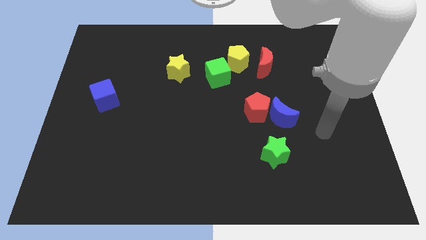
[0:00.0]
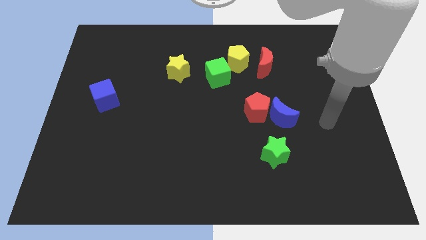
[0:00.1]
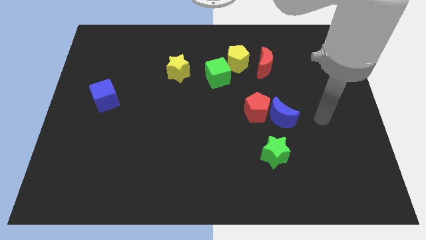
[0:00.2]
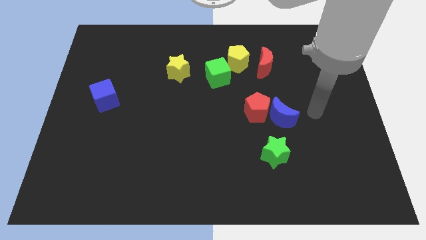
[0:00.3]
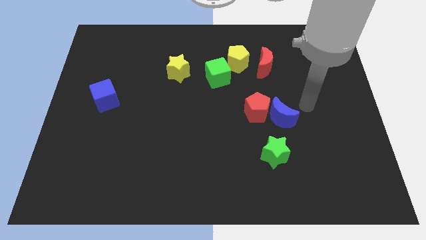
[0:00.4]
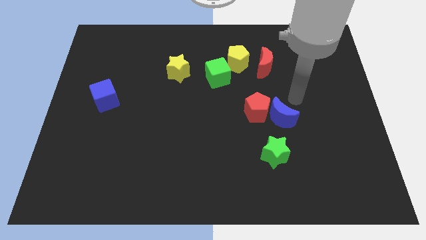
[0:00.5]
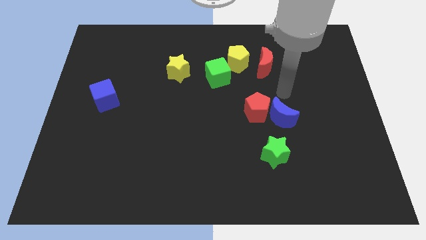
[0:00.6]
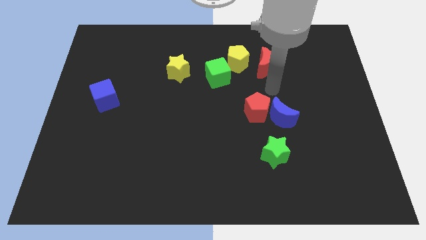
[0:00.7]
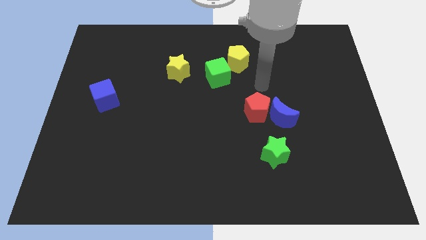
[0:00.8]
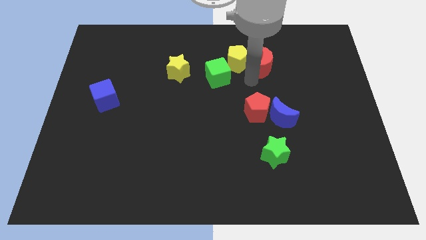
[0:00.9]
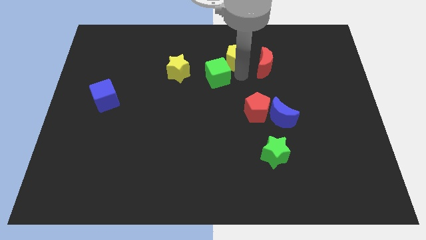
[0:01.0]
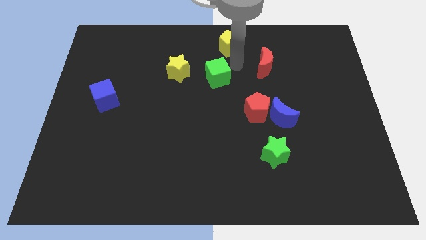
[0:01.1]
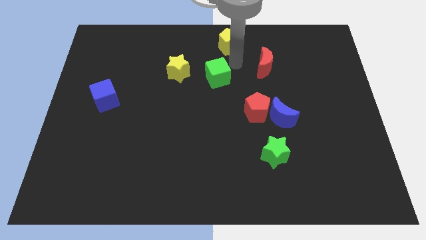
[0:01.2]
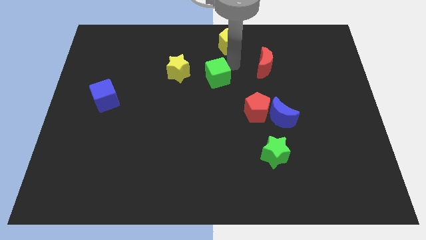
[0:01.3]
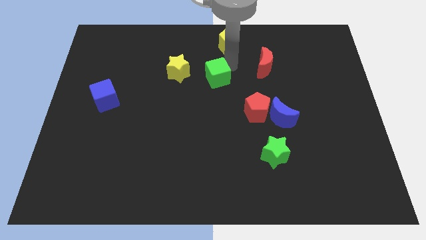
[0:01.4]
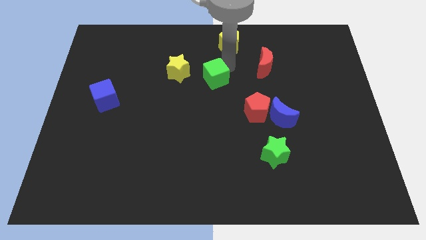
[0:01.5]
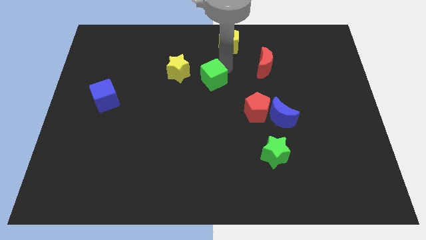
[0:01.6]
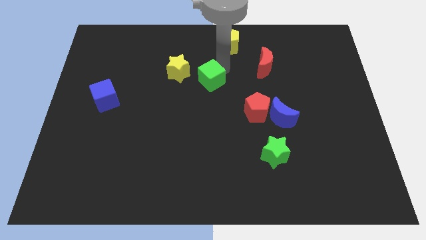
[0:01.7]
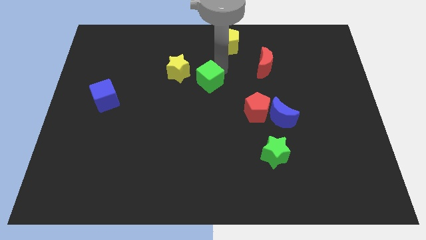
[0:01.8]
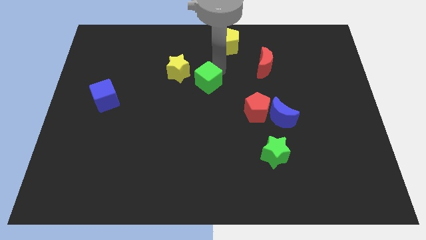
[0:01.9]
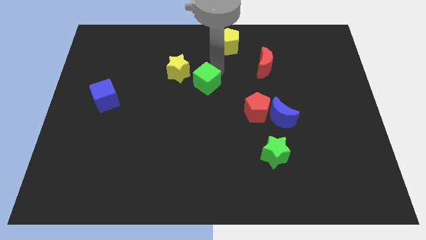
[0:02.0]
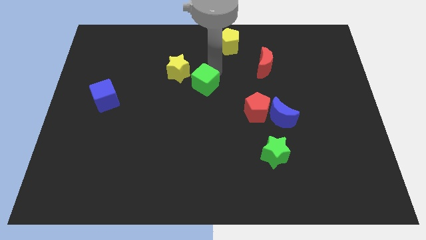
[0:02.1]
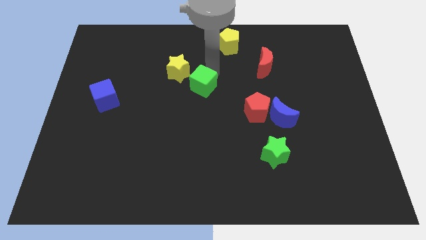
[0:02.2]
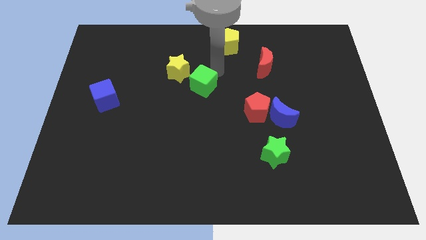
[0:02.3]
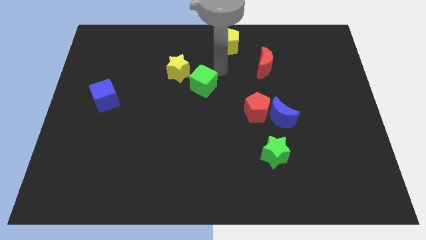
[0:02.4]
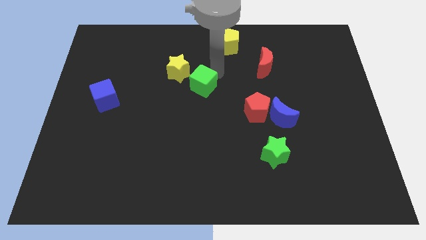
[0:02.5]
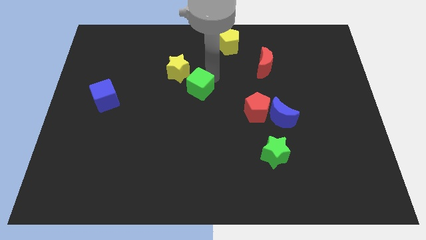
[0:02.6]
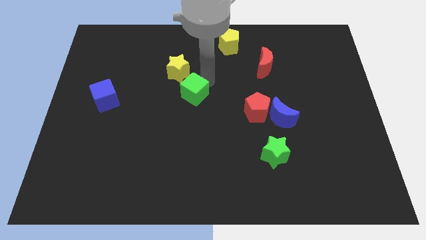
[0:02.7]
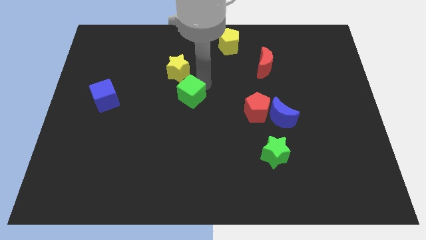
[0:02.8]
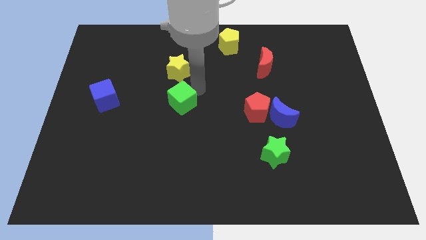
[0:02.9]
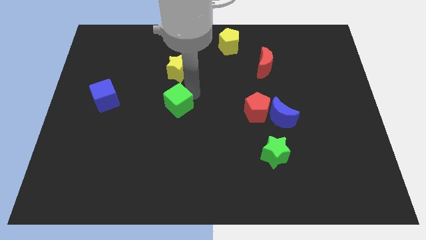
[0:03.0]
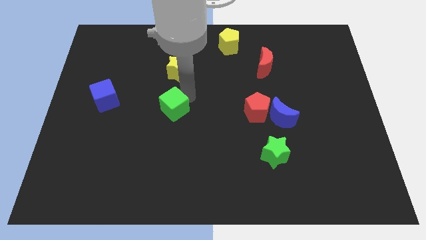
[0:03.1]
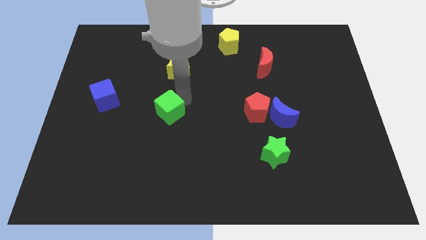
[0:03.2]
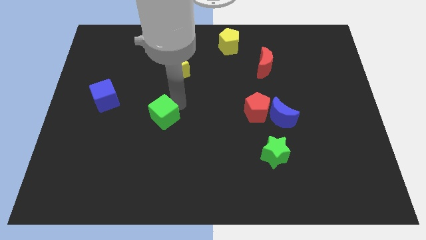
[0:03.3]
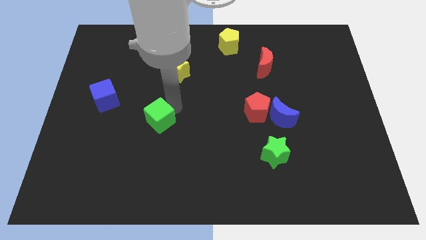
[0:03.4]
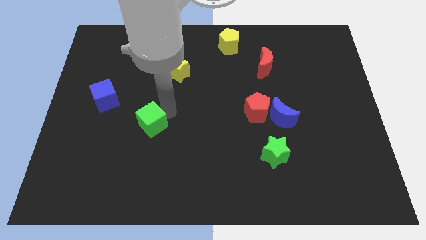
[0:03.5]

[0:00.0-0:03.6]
slide the green cube downwards and then to the left

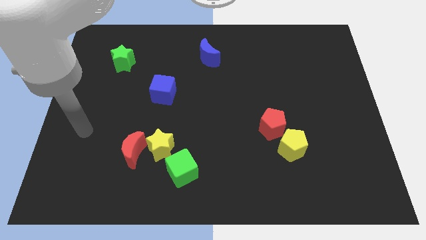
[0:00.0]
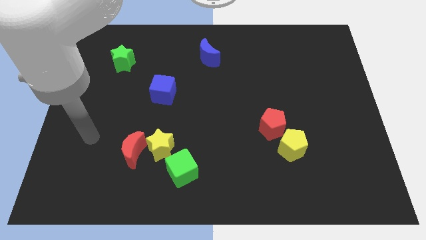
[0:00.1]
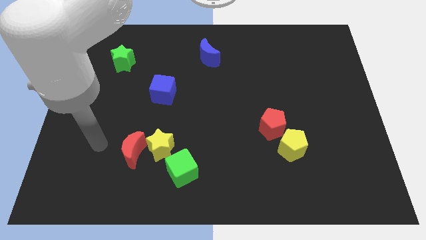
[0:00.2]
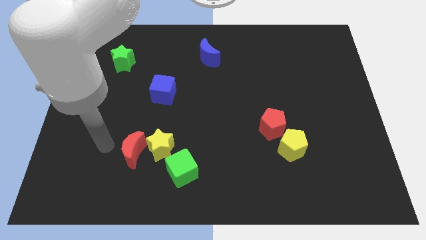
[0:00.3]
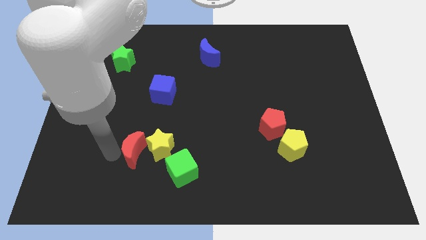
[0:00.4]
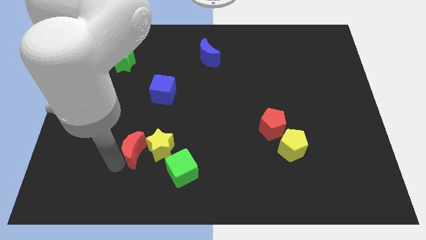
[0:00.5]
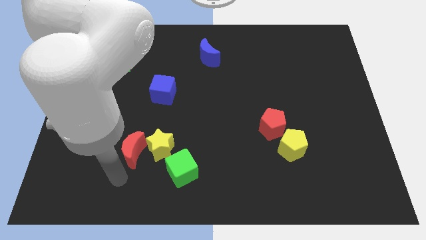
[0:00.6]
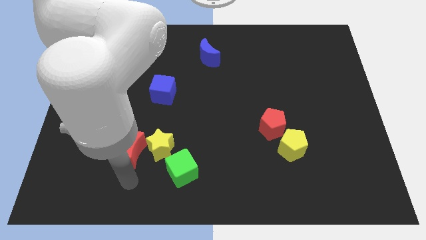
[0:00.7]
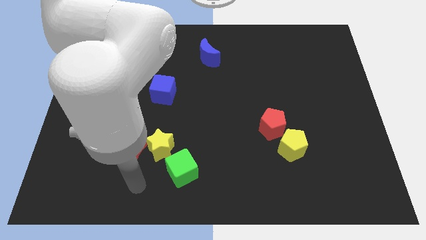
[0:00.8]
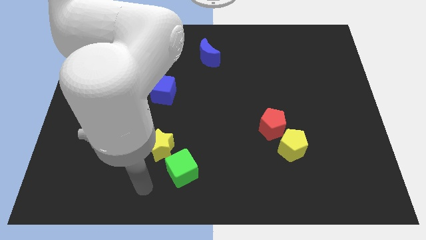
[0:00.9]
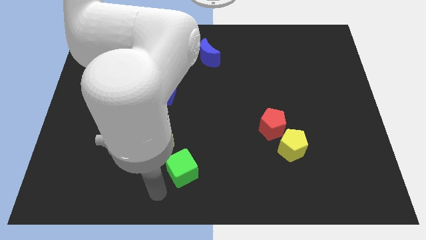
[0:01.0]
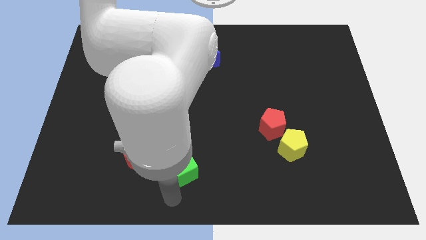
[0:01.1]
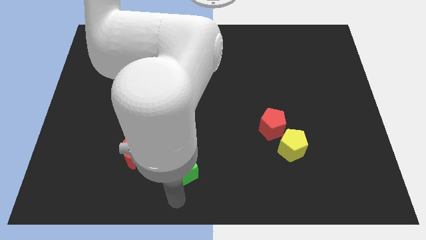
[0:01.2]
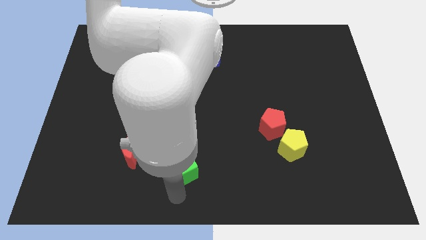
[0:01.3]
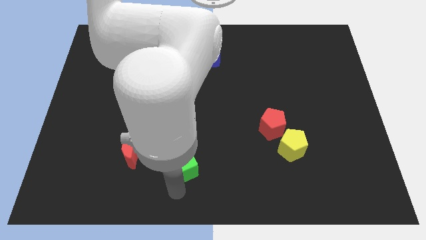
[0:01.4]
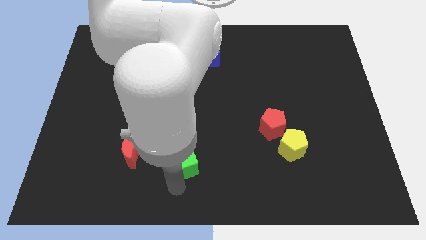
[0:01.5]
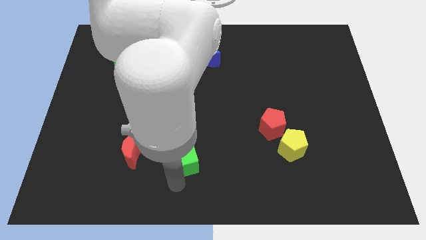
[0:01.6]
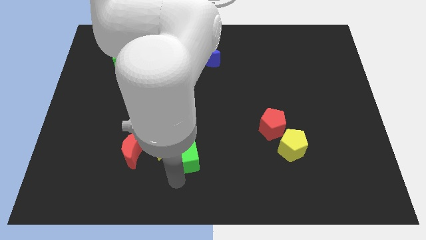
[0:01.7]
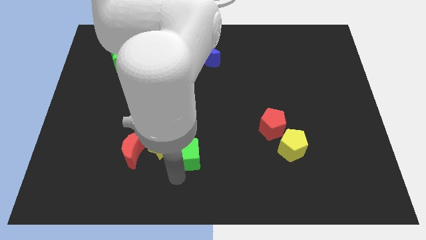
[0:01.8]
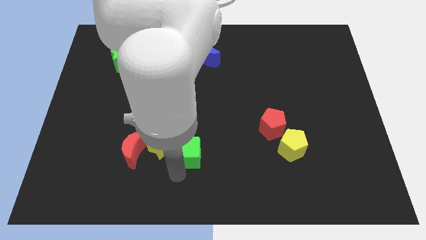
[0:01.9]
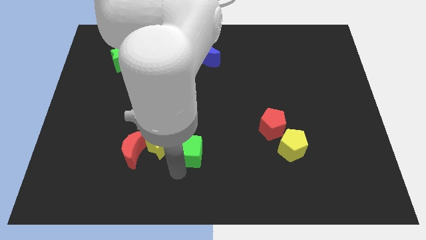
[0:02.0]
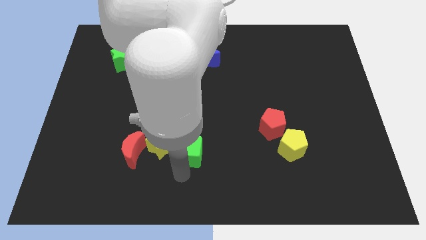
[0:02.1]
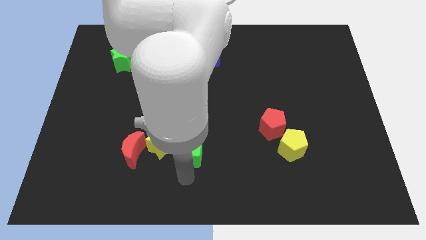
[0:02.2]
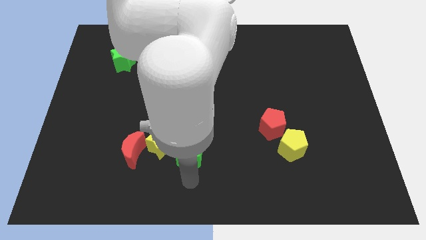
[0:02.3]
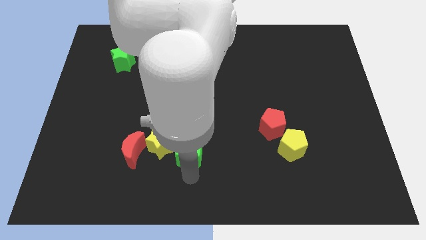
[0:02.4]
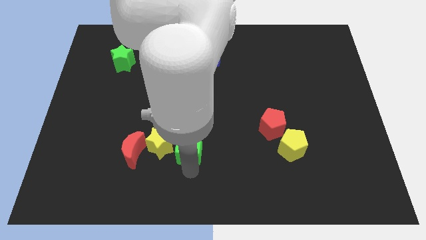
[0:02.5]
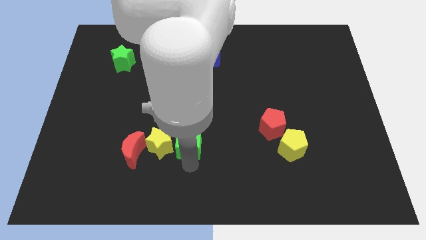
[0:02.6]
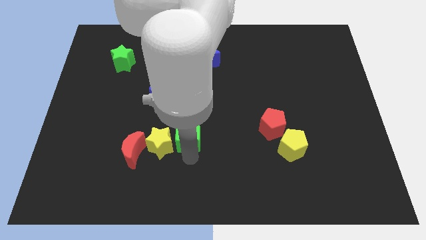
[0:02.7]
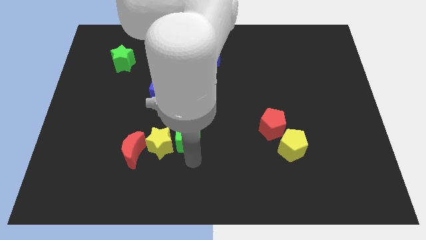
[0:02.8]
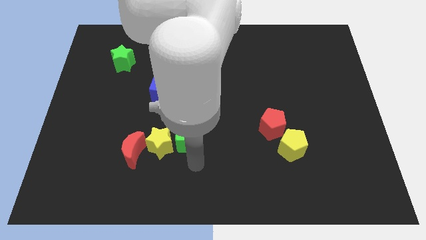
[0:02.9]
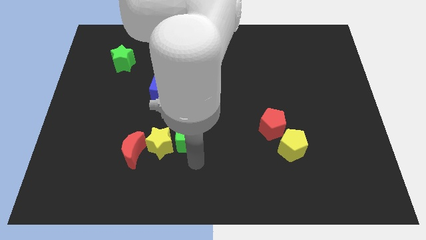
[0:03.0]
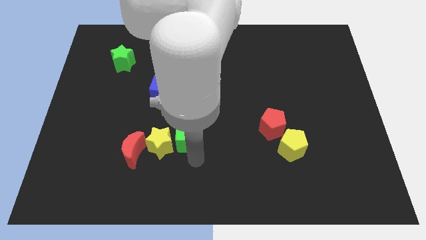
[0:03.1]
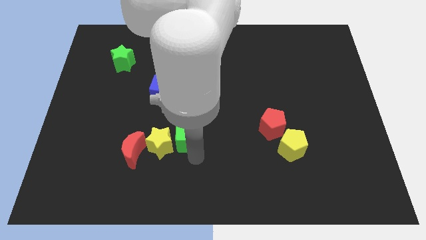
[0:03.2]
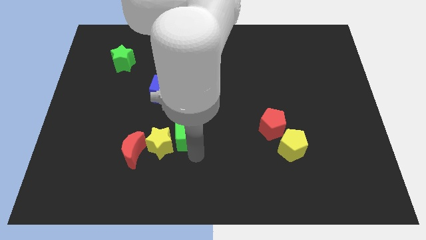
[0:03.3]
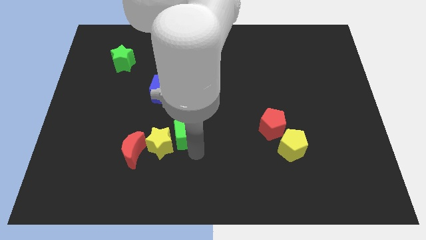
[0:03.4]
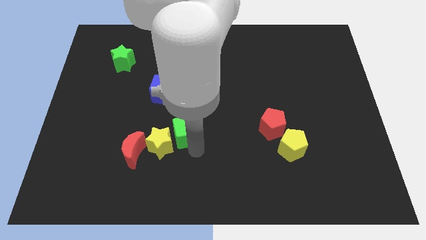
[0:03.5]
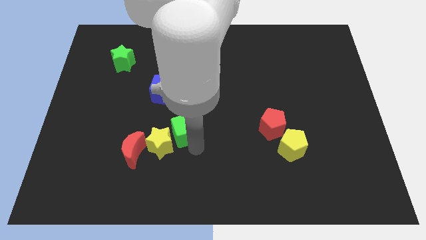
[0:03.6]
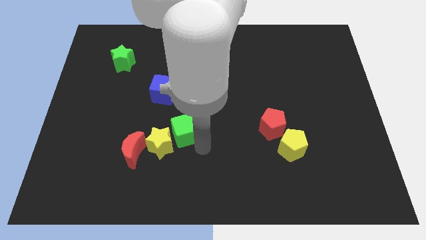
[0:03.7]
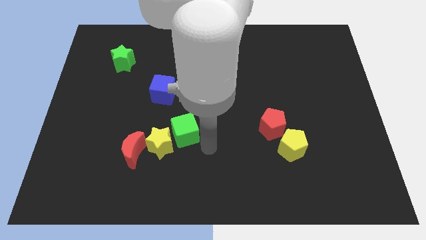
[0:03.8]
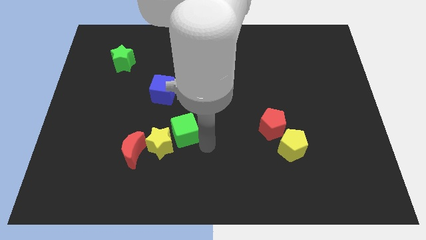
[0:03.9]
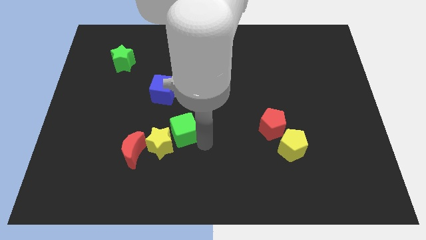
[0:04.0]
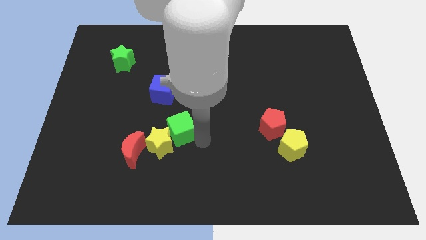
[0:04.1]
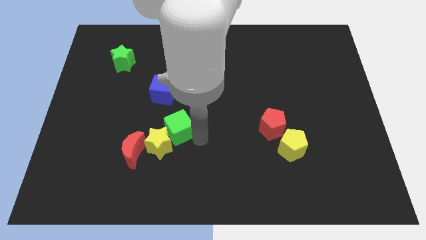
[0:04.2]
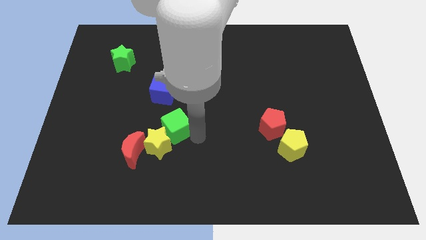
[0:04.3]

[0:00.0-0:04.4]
slide the green cube a bit up and then to the left
